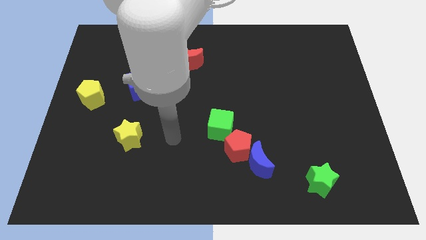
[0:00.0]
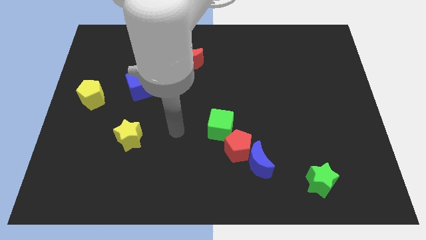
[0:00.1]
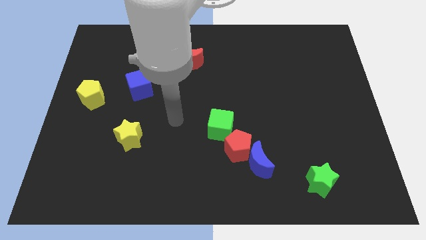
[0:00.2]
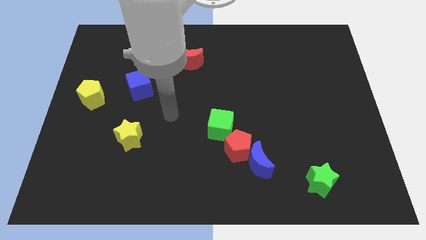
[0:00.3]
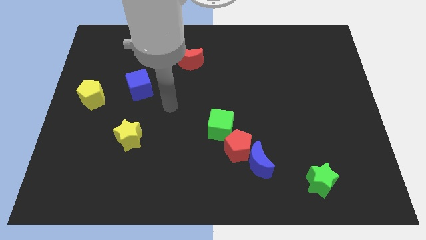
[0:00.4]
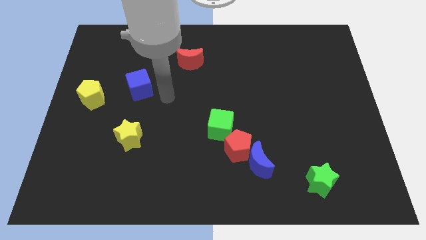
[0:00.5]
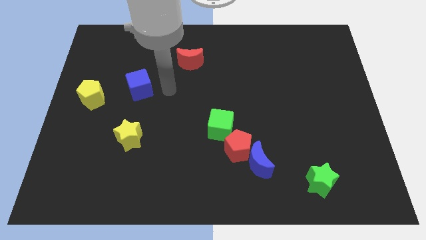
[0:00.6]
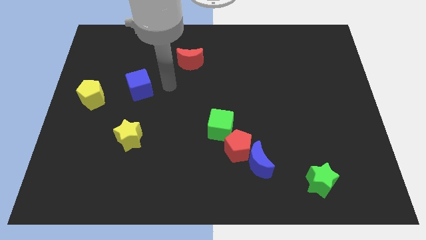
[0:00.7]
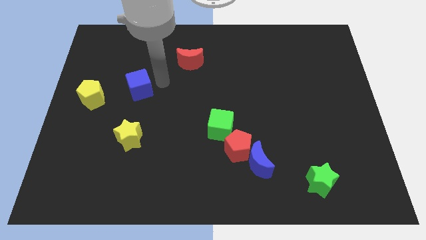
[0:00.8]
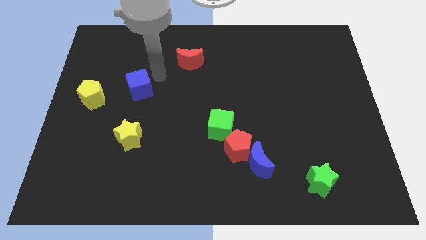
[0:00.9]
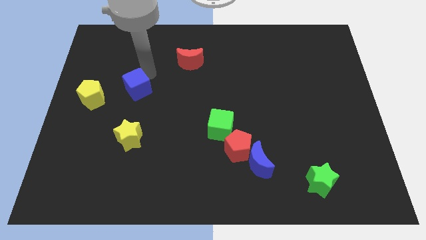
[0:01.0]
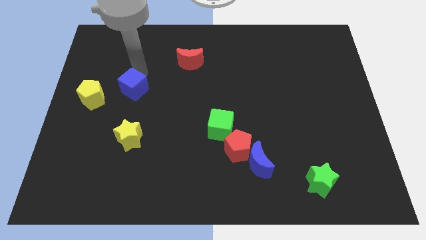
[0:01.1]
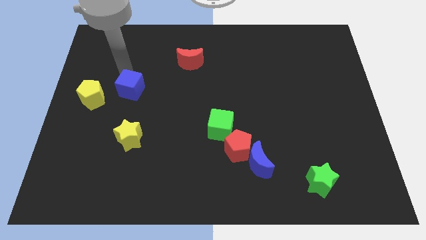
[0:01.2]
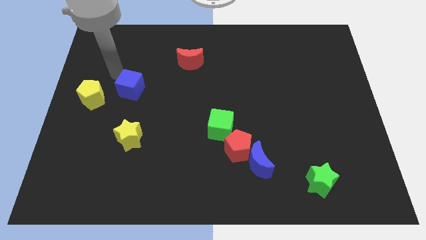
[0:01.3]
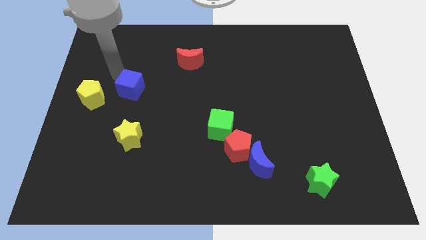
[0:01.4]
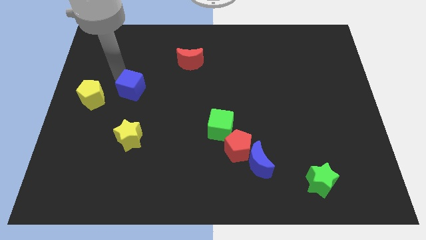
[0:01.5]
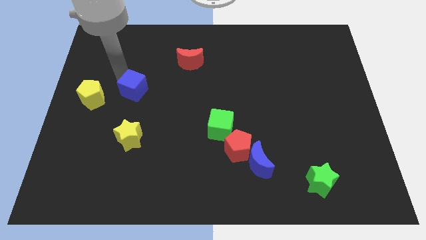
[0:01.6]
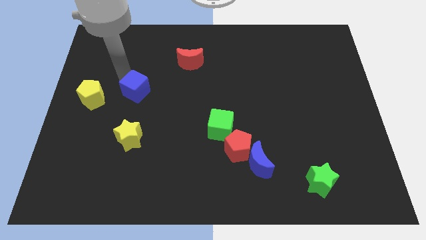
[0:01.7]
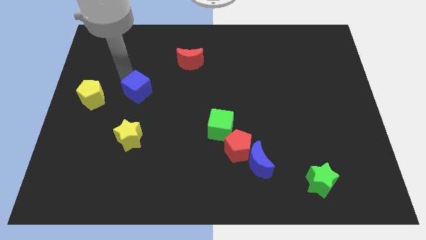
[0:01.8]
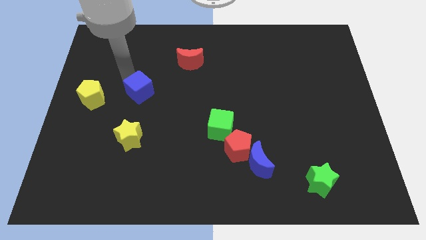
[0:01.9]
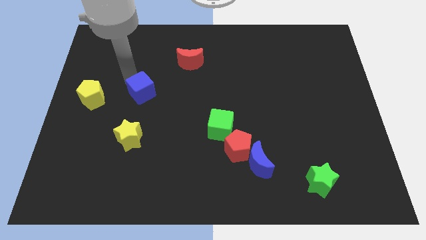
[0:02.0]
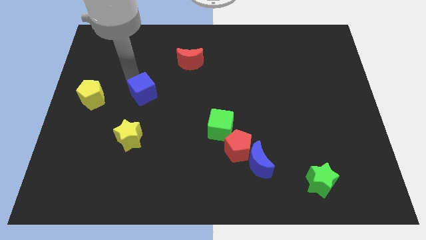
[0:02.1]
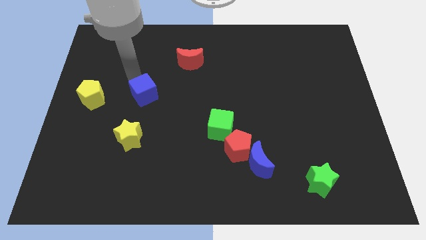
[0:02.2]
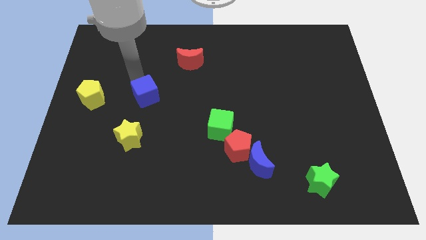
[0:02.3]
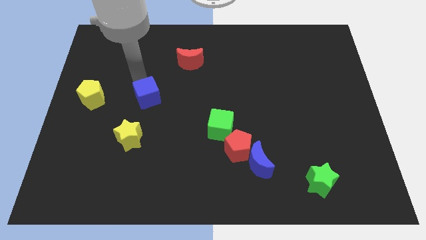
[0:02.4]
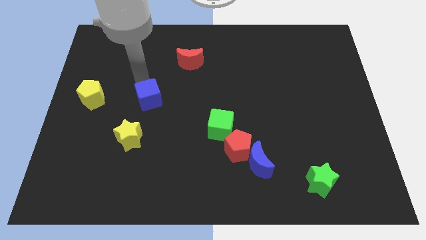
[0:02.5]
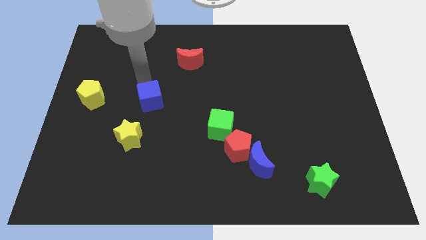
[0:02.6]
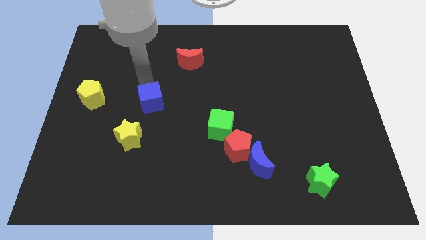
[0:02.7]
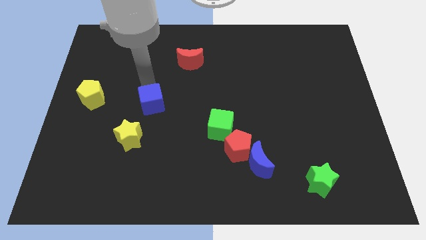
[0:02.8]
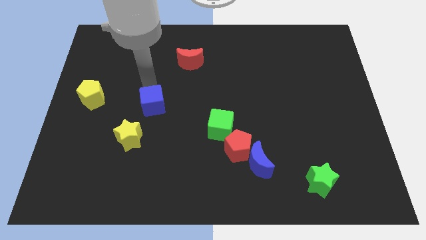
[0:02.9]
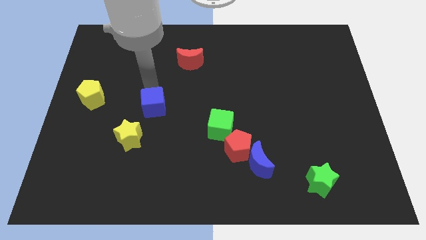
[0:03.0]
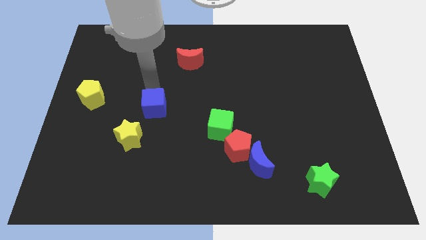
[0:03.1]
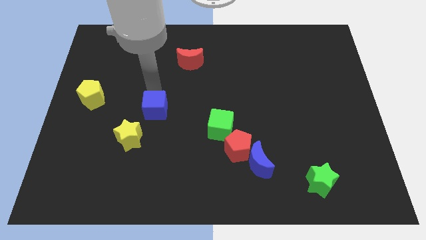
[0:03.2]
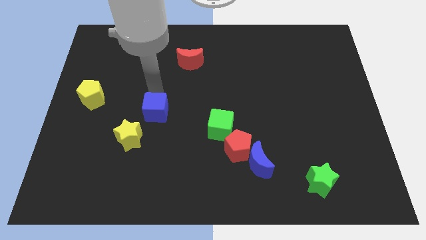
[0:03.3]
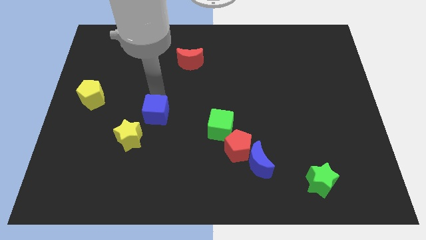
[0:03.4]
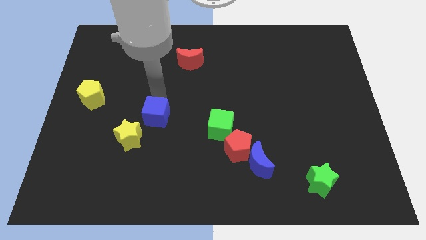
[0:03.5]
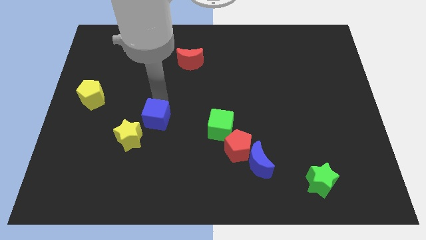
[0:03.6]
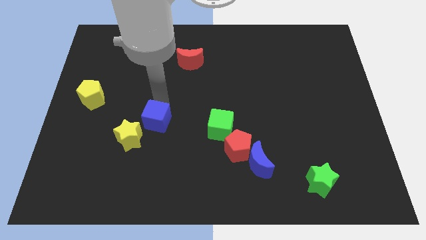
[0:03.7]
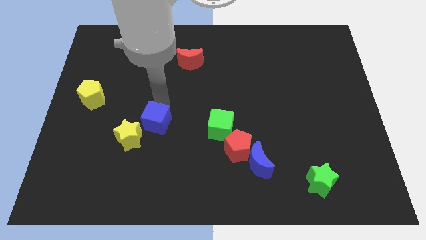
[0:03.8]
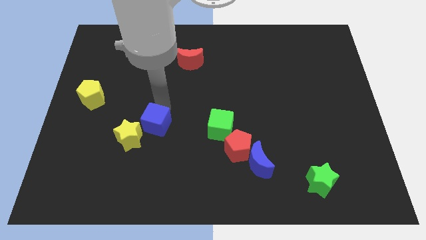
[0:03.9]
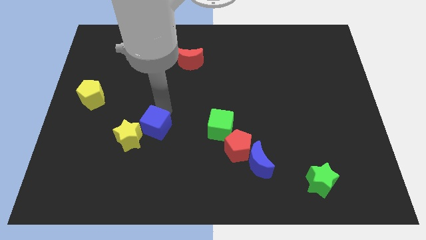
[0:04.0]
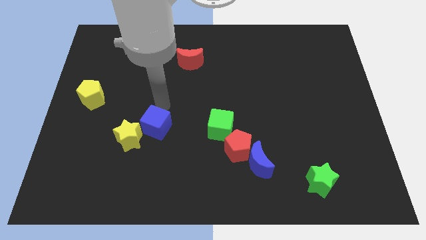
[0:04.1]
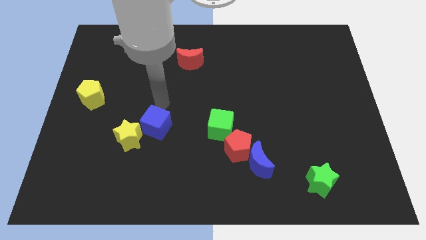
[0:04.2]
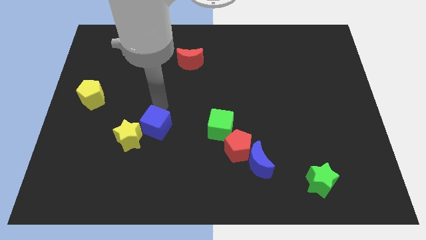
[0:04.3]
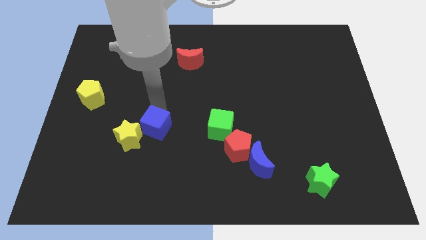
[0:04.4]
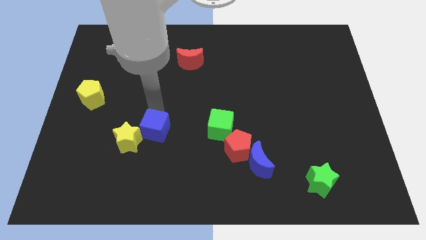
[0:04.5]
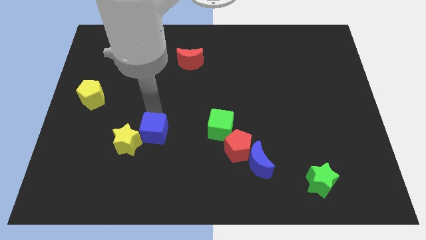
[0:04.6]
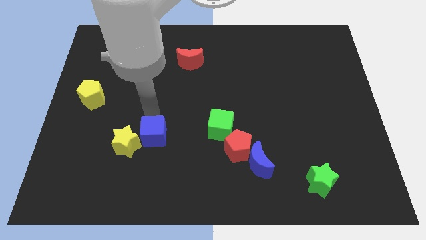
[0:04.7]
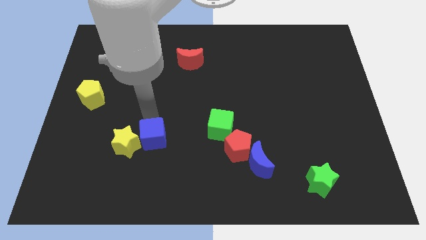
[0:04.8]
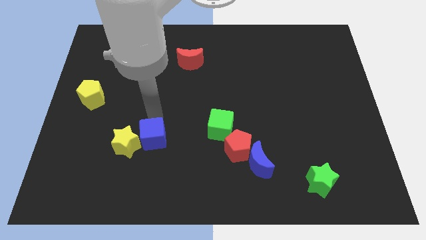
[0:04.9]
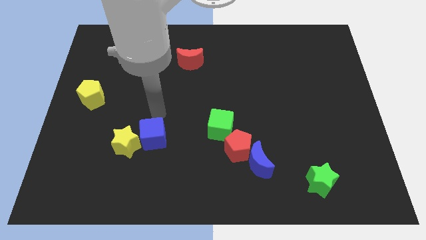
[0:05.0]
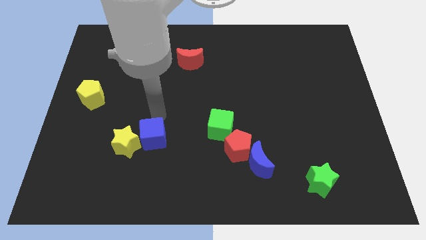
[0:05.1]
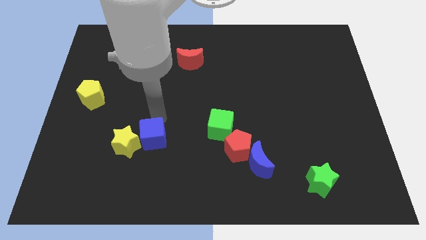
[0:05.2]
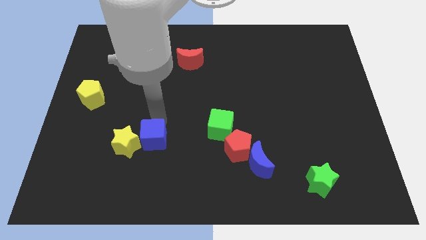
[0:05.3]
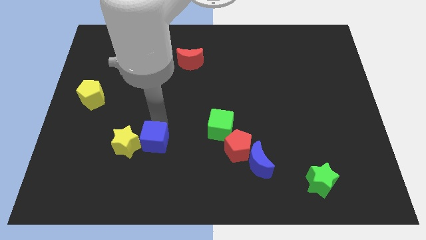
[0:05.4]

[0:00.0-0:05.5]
push the blue cube to the bottom right side of the yellow star

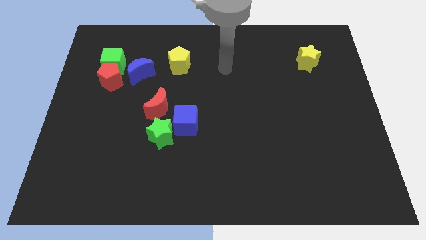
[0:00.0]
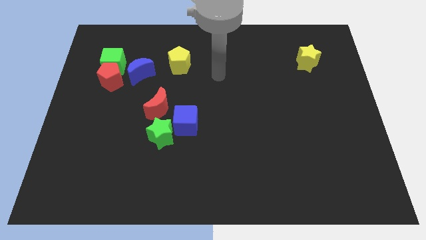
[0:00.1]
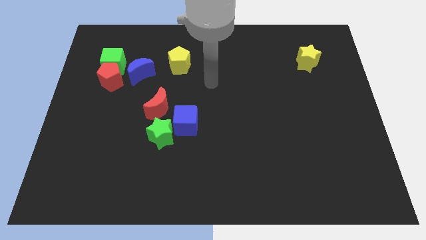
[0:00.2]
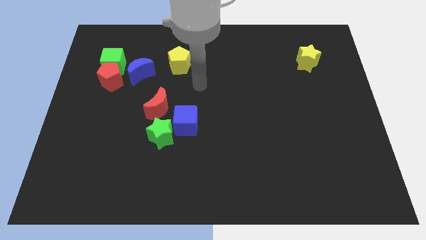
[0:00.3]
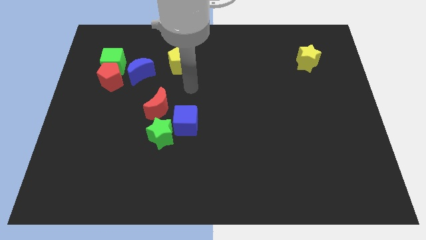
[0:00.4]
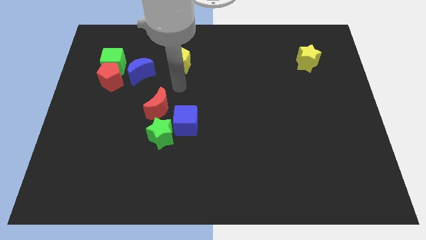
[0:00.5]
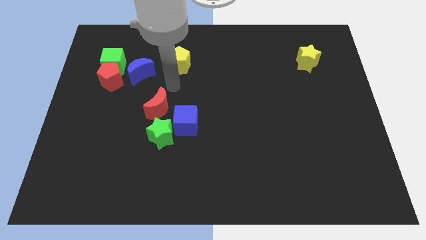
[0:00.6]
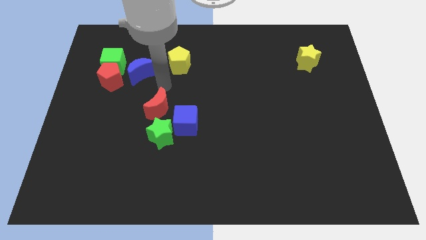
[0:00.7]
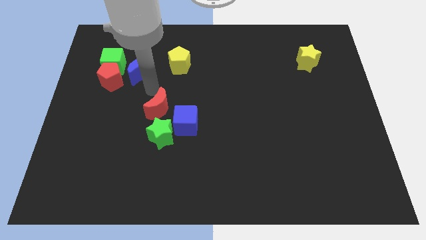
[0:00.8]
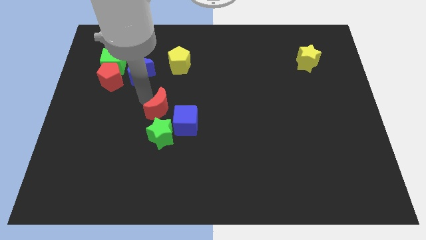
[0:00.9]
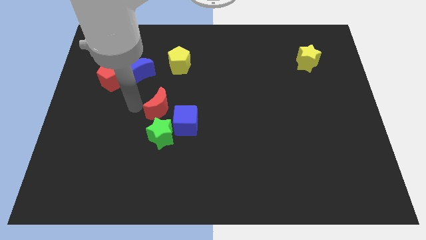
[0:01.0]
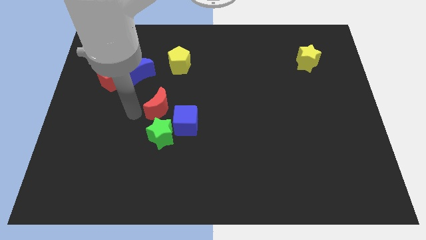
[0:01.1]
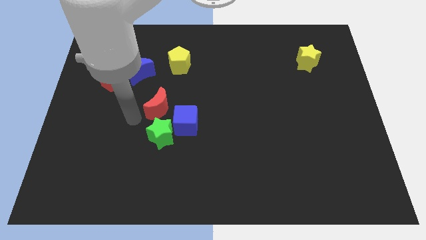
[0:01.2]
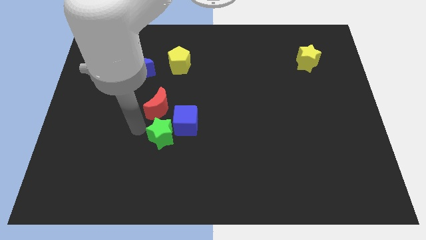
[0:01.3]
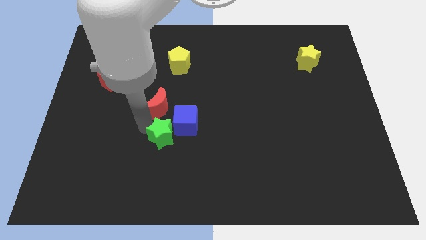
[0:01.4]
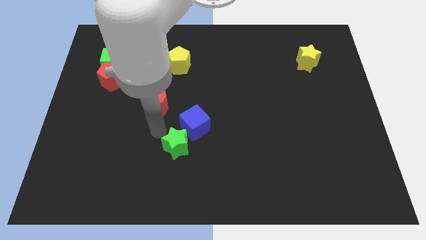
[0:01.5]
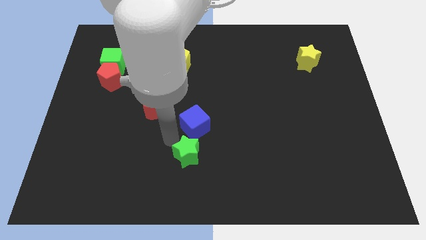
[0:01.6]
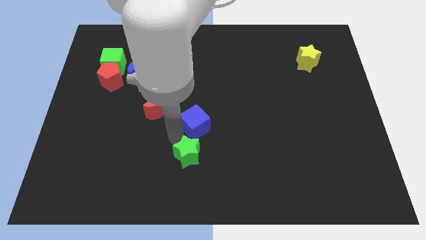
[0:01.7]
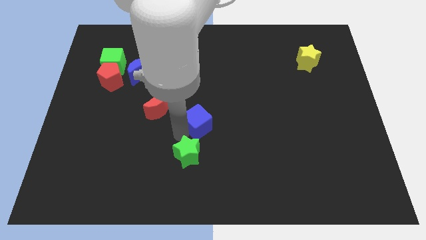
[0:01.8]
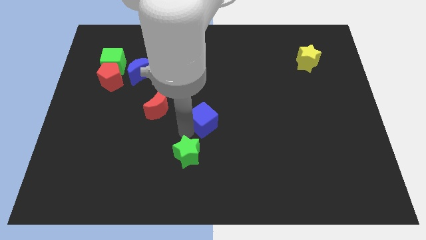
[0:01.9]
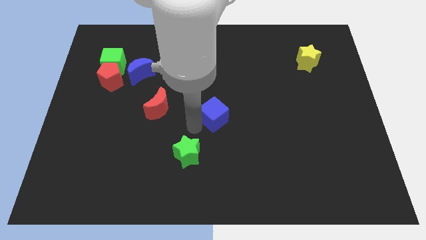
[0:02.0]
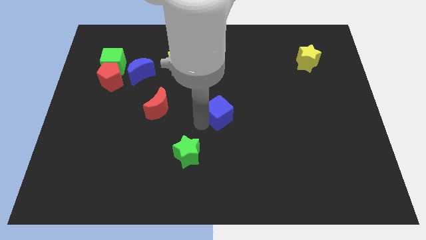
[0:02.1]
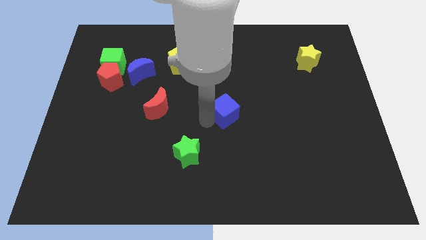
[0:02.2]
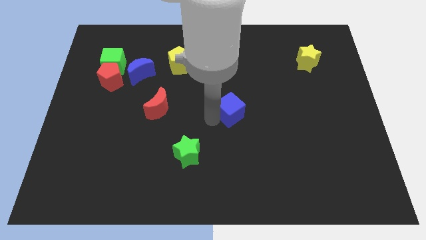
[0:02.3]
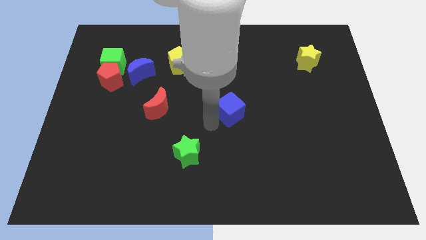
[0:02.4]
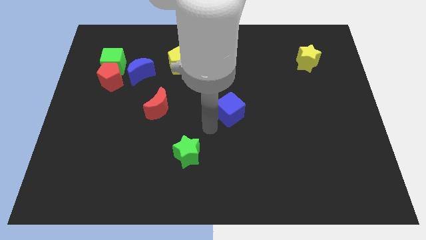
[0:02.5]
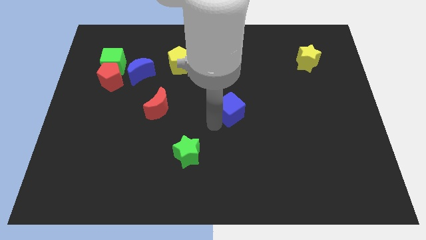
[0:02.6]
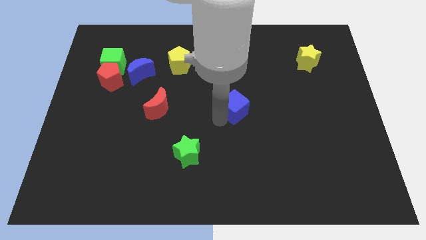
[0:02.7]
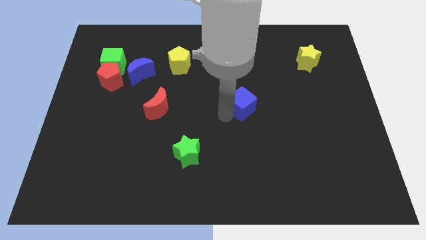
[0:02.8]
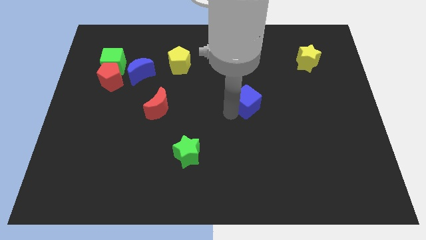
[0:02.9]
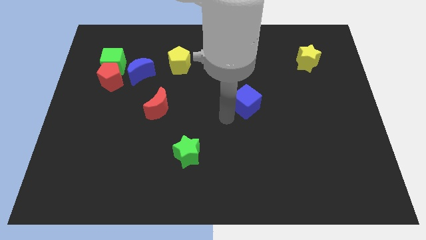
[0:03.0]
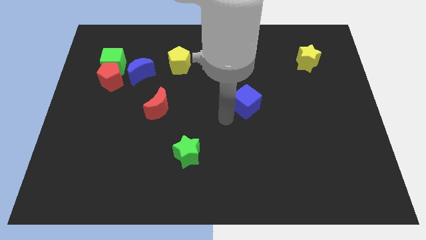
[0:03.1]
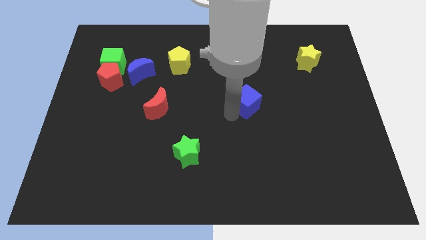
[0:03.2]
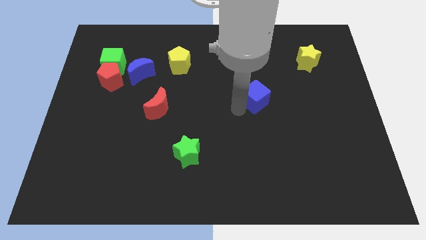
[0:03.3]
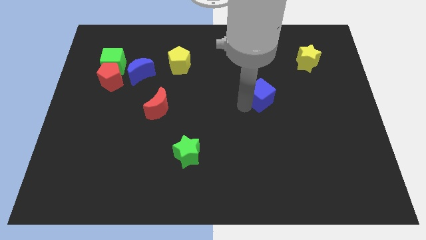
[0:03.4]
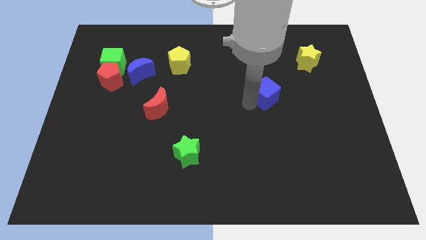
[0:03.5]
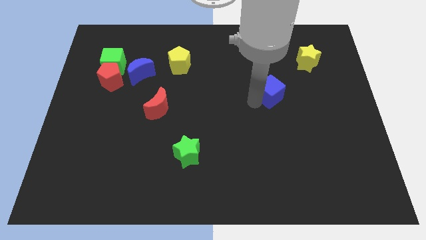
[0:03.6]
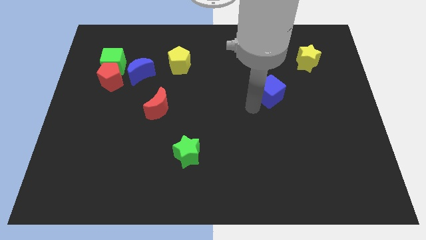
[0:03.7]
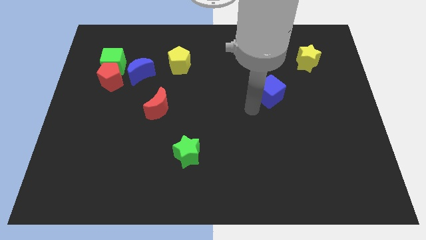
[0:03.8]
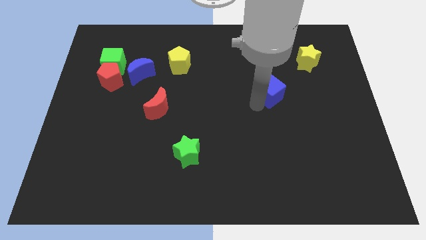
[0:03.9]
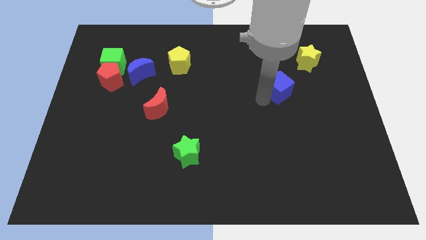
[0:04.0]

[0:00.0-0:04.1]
slide the blue cube diagonally down and to the left of the yellow star
